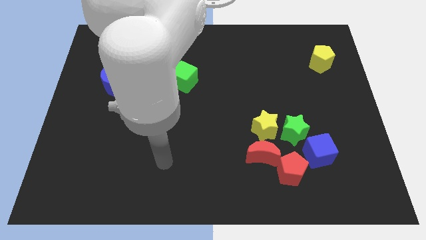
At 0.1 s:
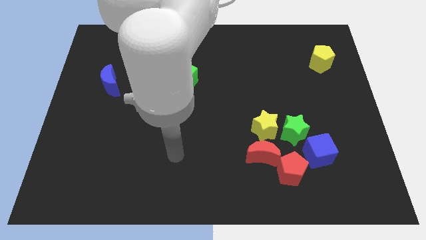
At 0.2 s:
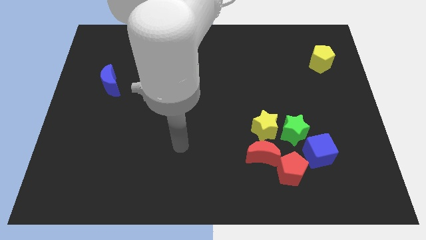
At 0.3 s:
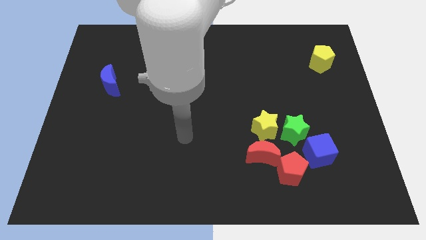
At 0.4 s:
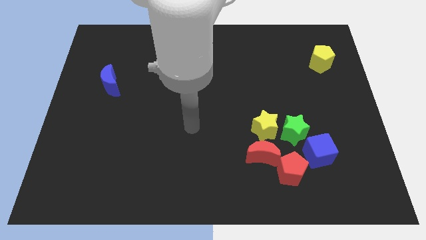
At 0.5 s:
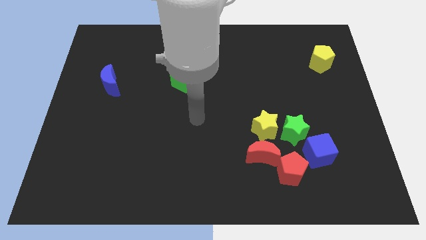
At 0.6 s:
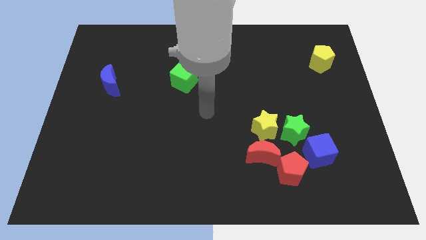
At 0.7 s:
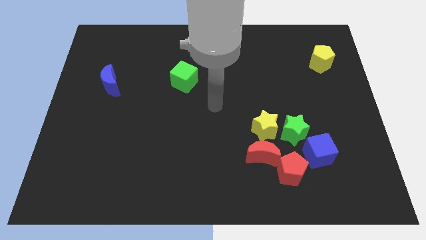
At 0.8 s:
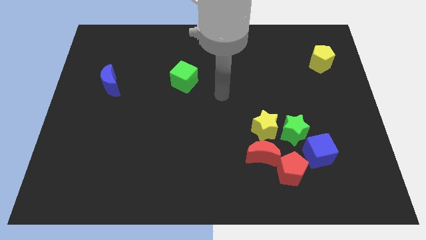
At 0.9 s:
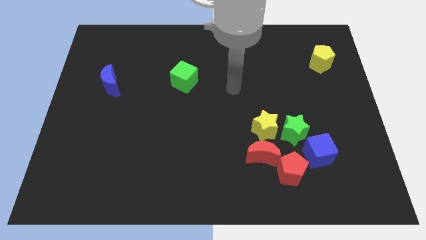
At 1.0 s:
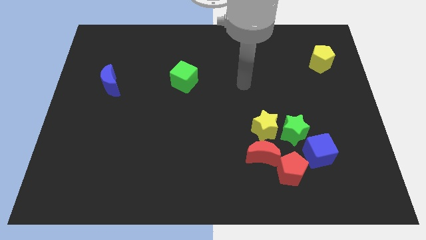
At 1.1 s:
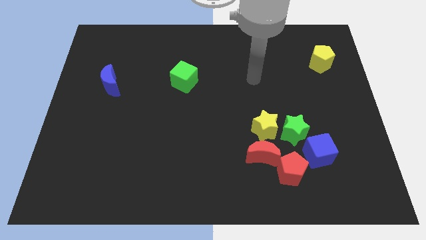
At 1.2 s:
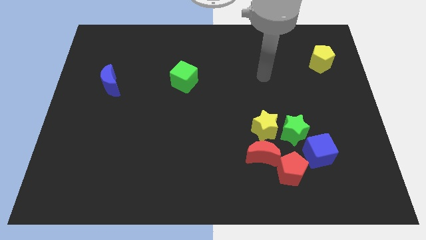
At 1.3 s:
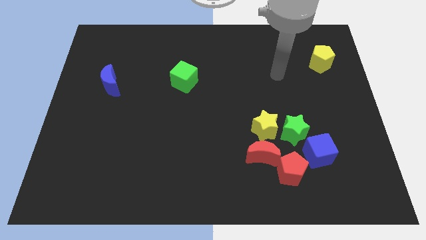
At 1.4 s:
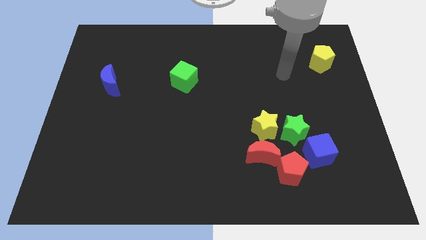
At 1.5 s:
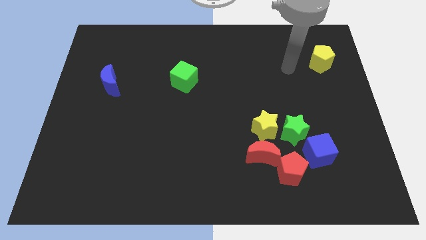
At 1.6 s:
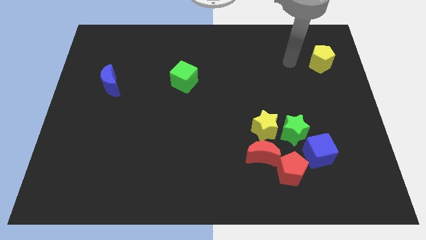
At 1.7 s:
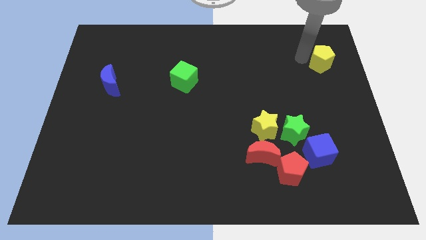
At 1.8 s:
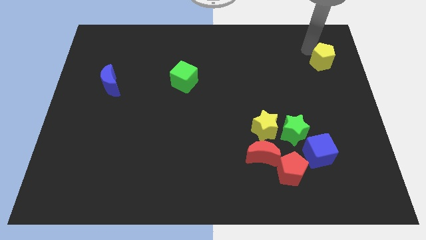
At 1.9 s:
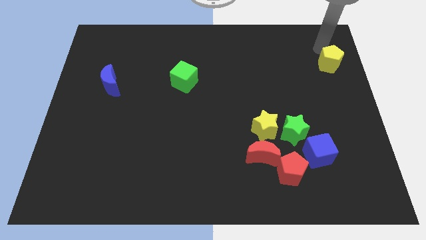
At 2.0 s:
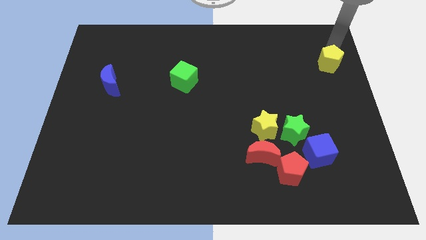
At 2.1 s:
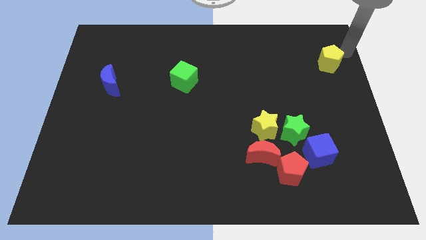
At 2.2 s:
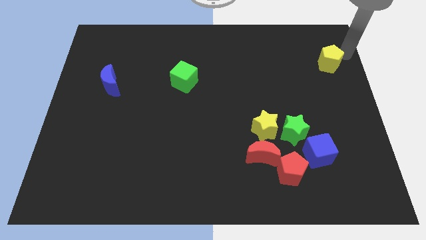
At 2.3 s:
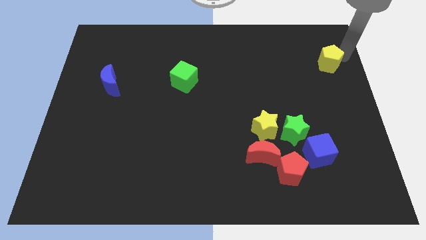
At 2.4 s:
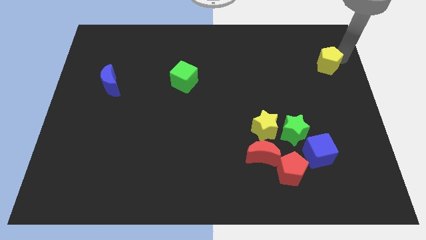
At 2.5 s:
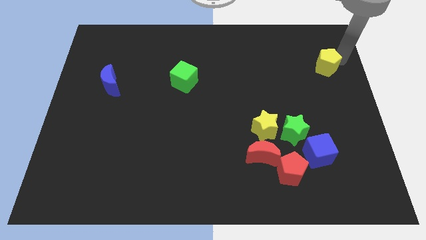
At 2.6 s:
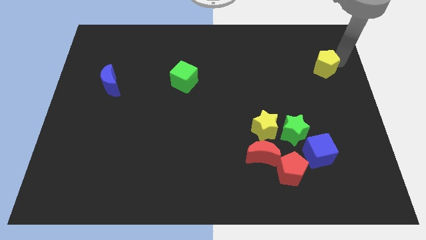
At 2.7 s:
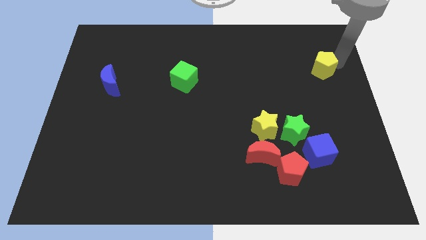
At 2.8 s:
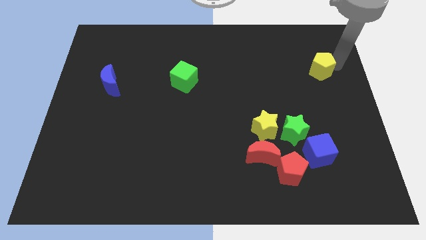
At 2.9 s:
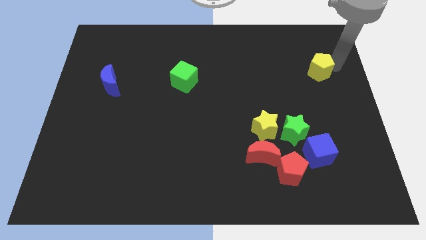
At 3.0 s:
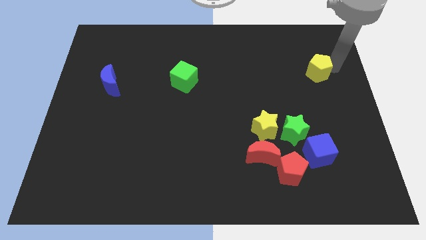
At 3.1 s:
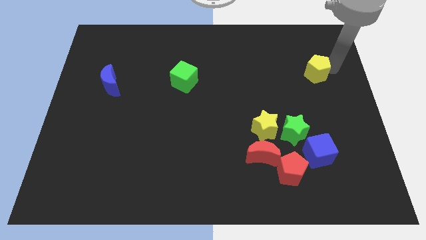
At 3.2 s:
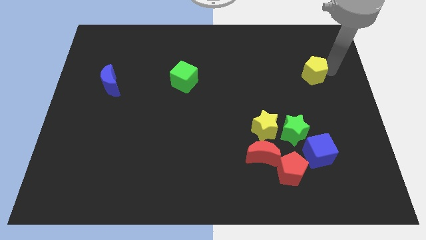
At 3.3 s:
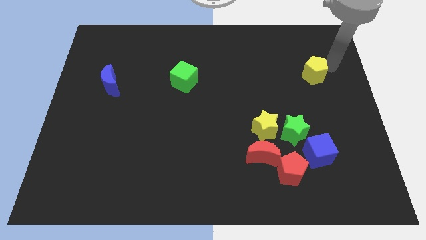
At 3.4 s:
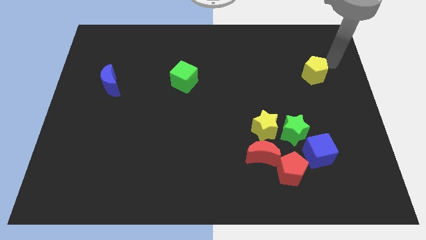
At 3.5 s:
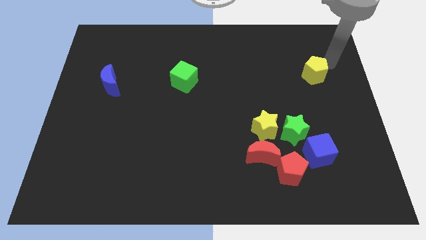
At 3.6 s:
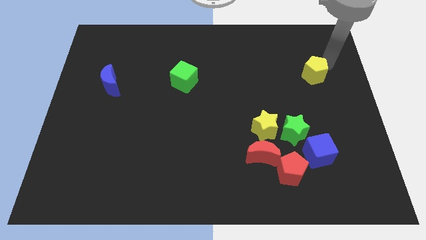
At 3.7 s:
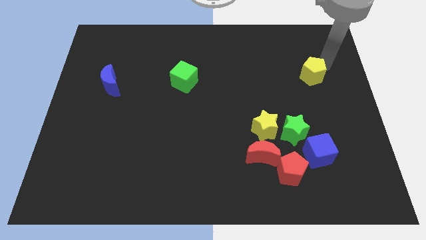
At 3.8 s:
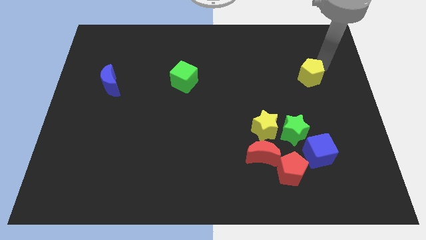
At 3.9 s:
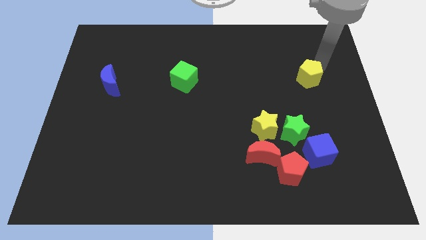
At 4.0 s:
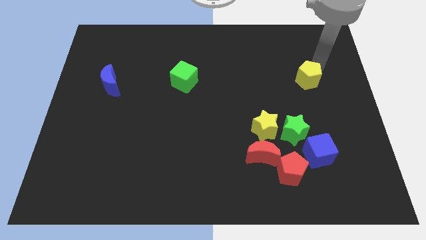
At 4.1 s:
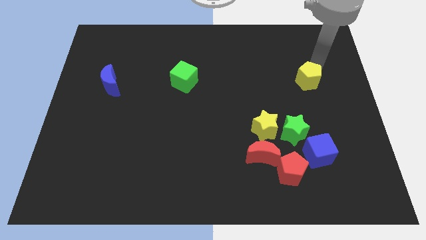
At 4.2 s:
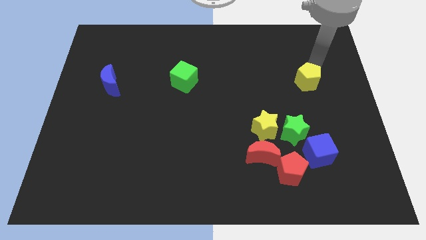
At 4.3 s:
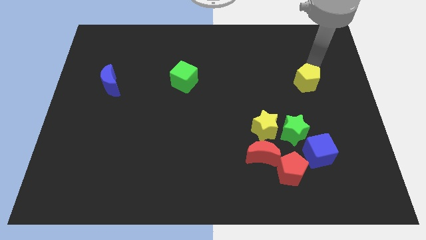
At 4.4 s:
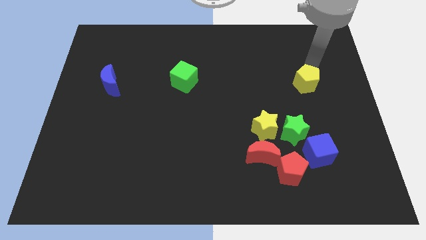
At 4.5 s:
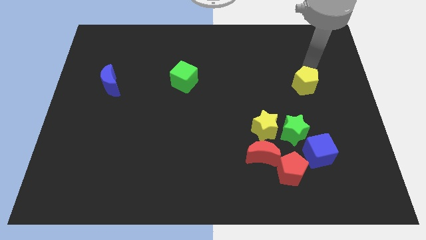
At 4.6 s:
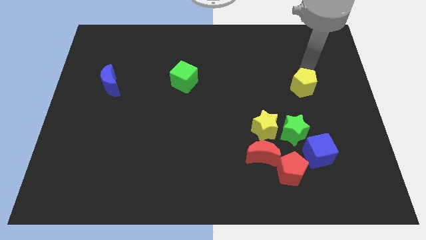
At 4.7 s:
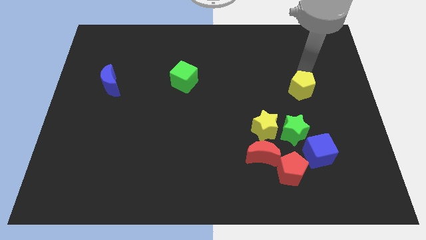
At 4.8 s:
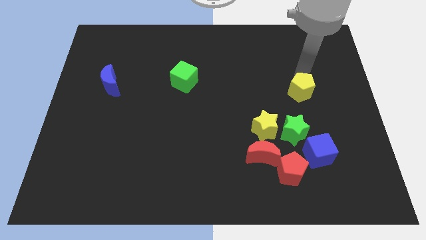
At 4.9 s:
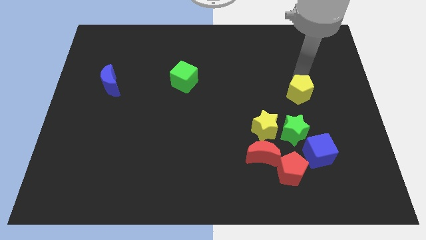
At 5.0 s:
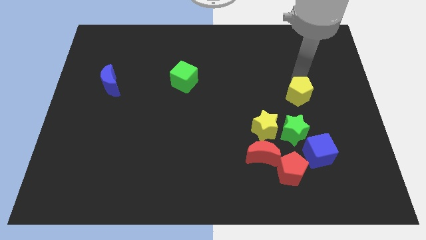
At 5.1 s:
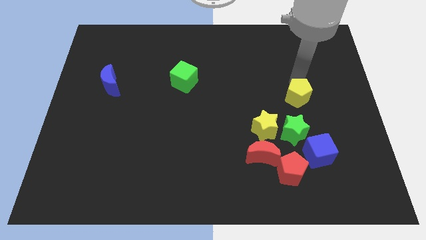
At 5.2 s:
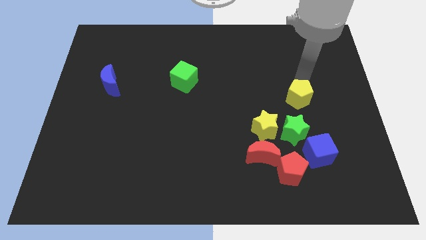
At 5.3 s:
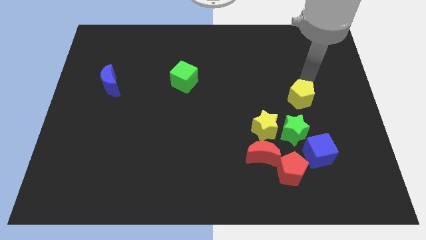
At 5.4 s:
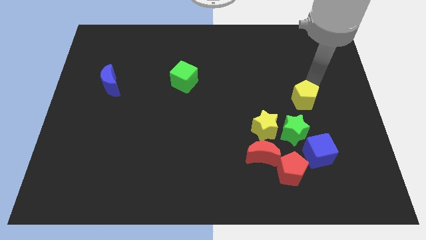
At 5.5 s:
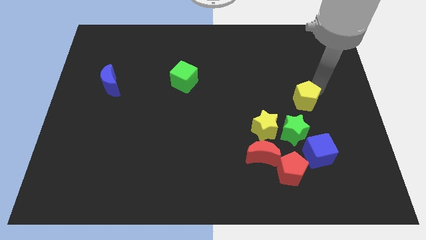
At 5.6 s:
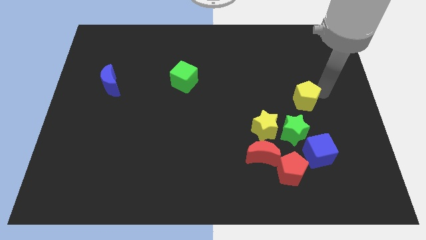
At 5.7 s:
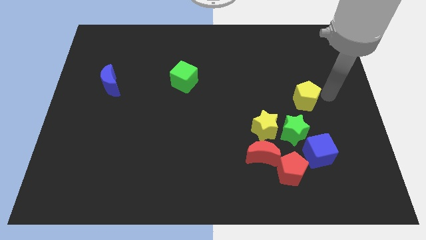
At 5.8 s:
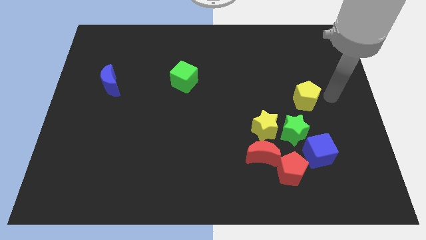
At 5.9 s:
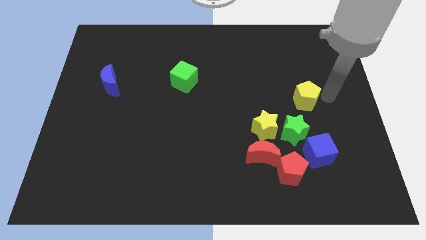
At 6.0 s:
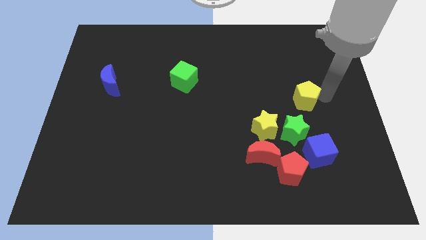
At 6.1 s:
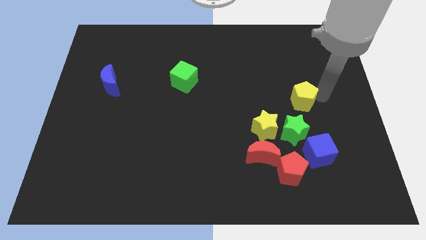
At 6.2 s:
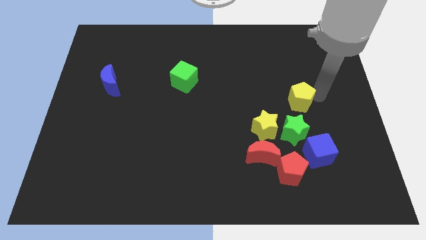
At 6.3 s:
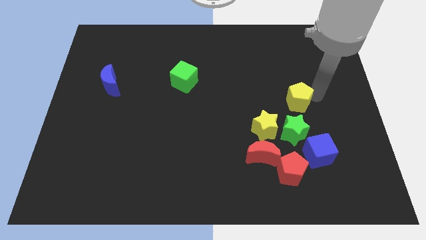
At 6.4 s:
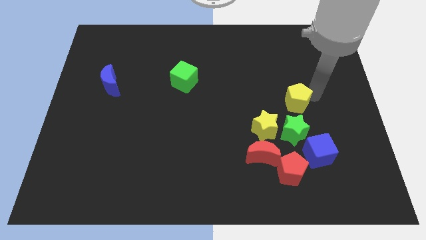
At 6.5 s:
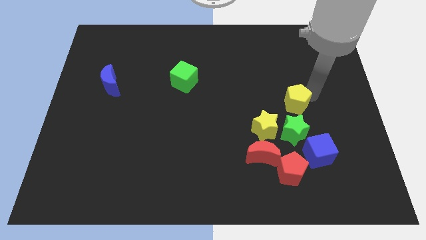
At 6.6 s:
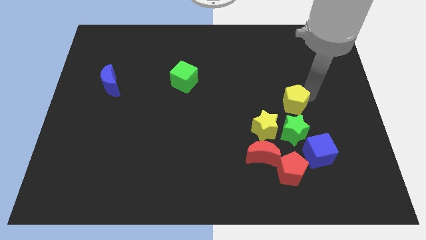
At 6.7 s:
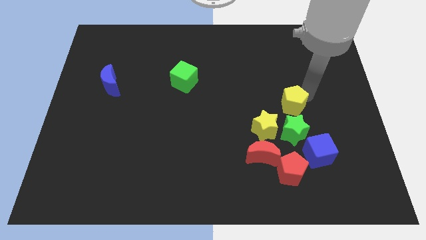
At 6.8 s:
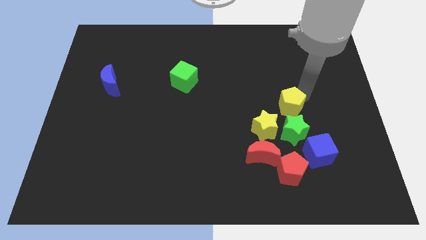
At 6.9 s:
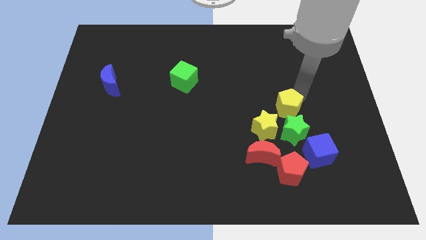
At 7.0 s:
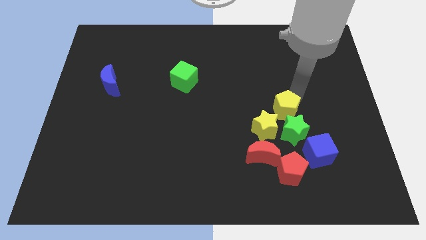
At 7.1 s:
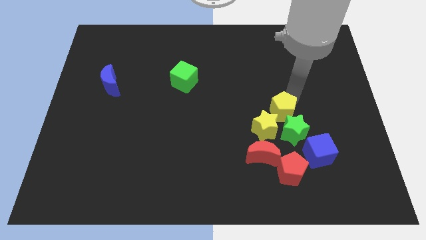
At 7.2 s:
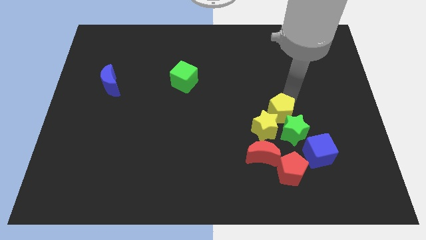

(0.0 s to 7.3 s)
push the yellow pentagon downwards and left

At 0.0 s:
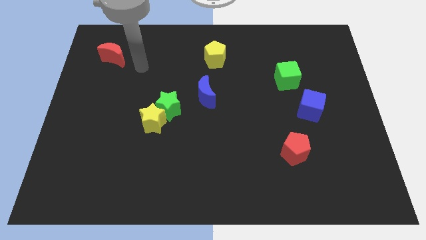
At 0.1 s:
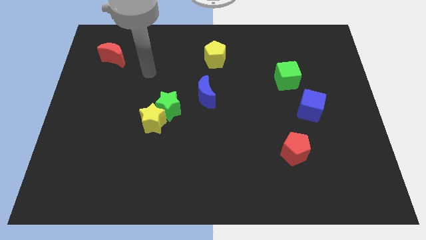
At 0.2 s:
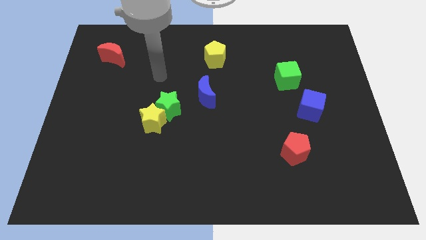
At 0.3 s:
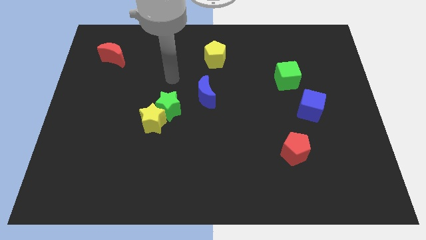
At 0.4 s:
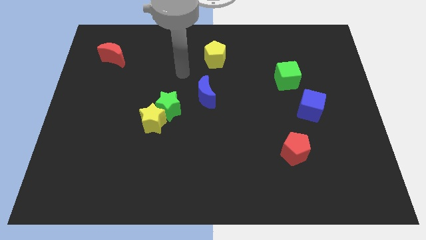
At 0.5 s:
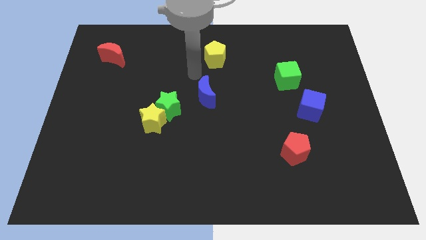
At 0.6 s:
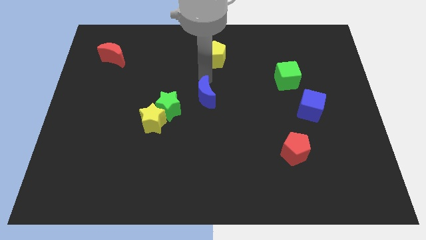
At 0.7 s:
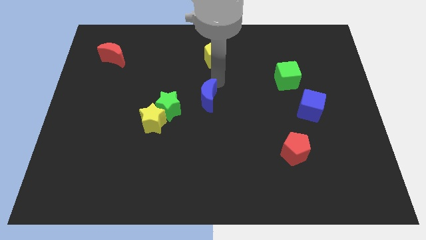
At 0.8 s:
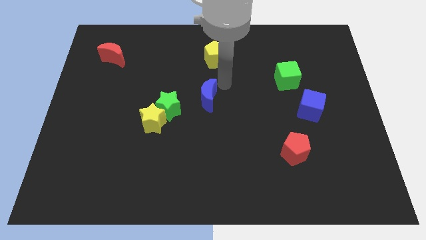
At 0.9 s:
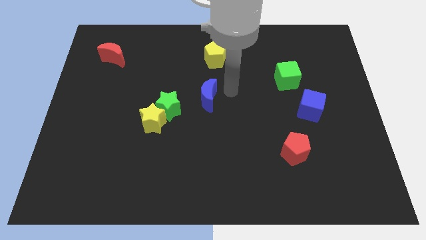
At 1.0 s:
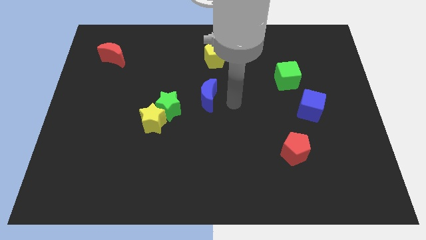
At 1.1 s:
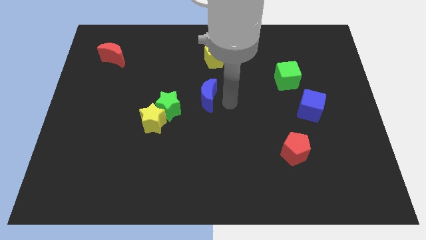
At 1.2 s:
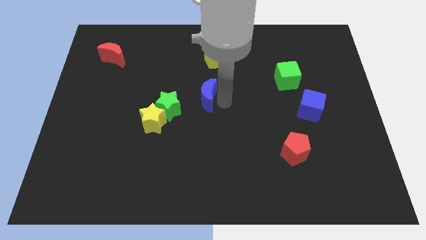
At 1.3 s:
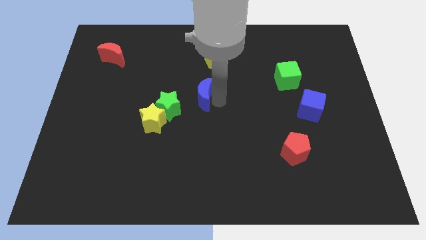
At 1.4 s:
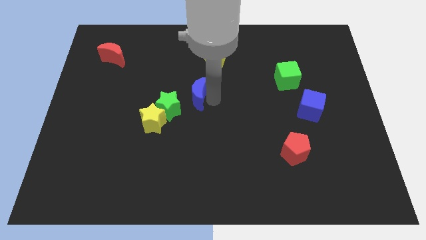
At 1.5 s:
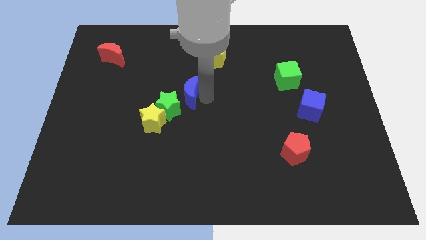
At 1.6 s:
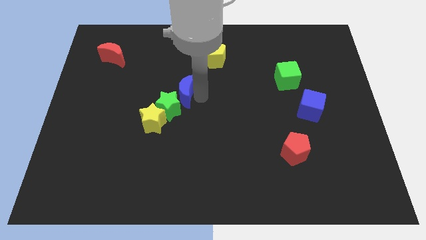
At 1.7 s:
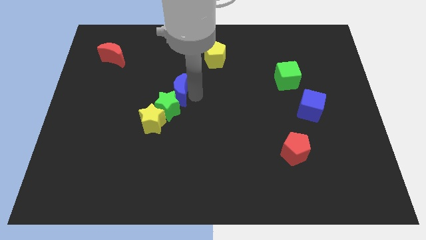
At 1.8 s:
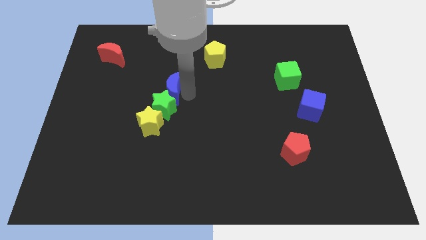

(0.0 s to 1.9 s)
slide the blue moon a little to the left
